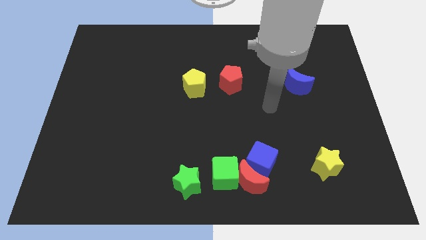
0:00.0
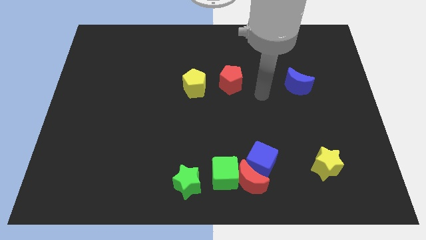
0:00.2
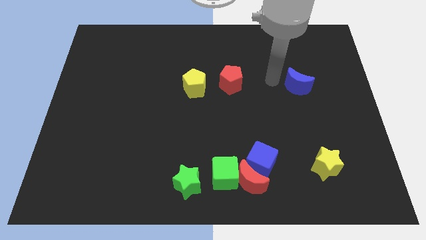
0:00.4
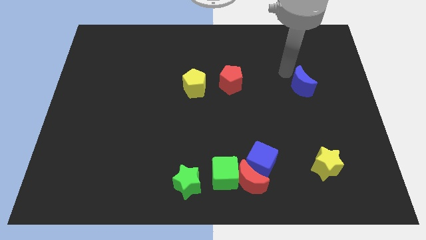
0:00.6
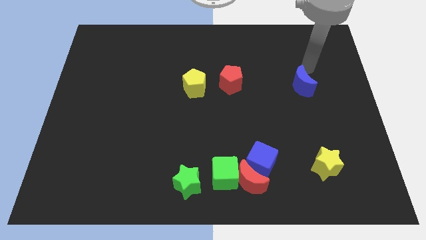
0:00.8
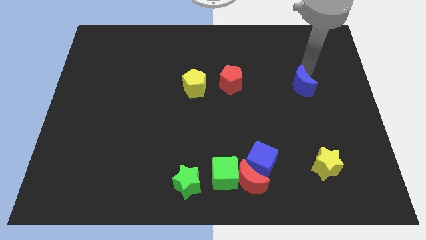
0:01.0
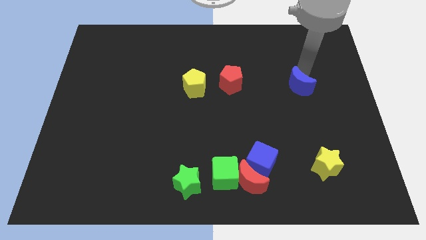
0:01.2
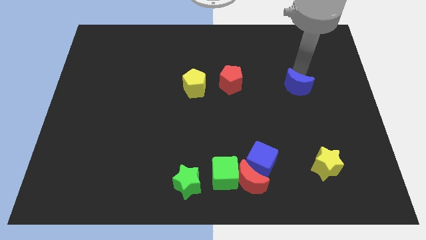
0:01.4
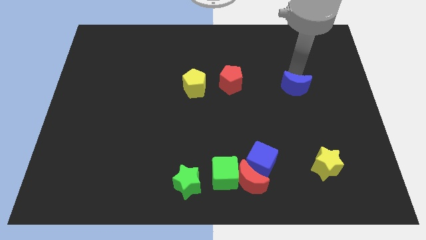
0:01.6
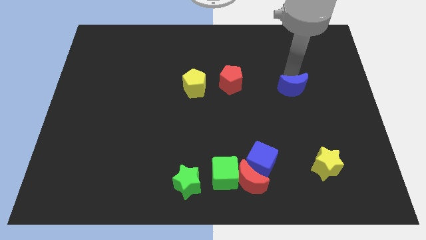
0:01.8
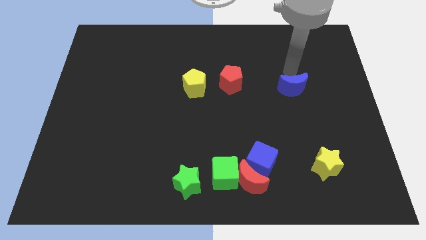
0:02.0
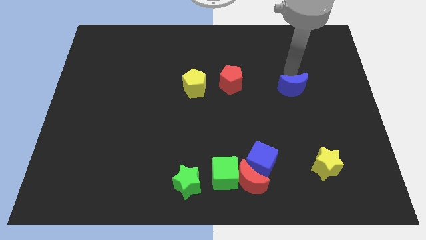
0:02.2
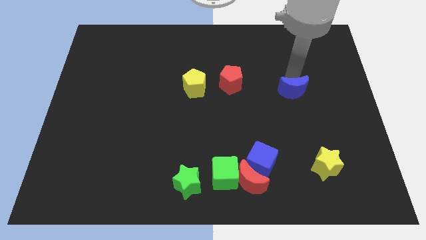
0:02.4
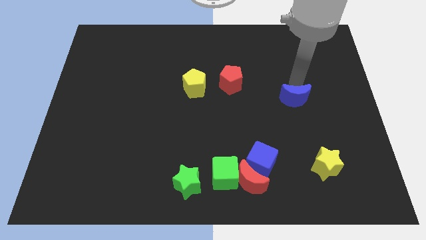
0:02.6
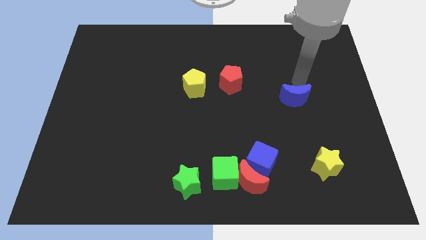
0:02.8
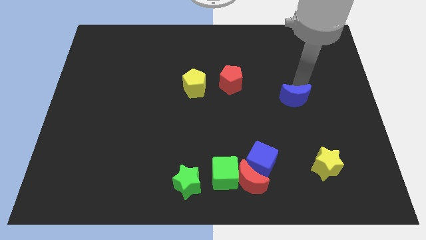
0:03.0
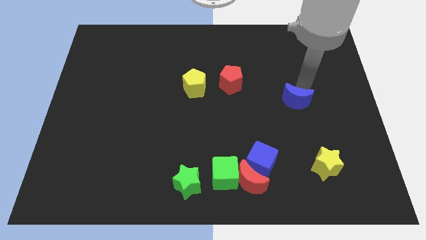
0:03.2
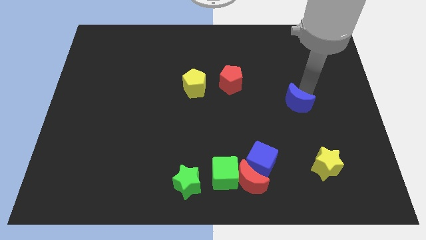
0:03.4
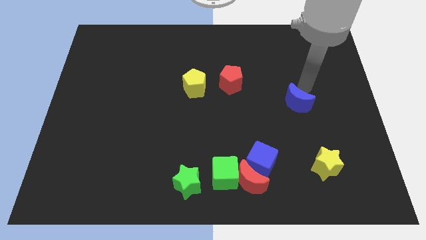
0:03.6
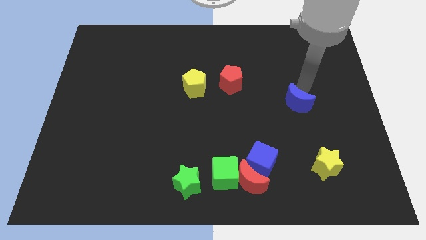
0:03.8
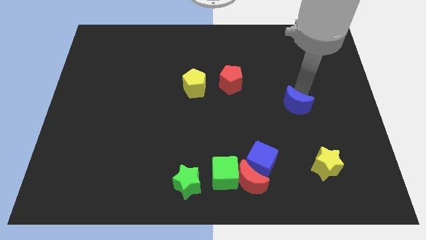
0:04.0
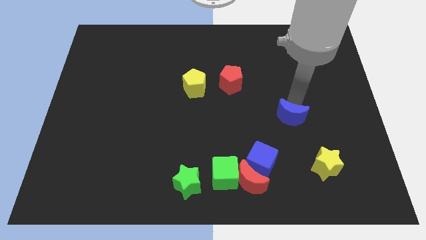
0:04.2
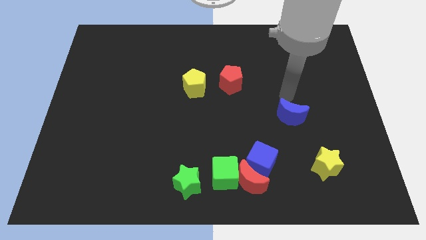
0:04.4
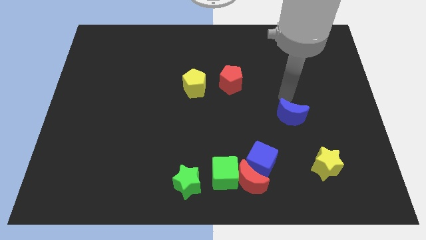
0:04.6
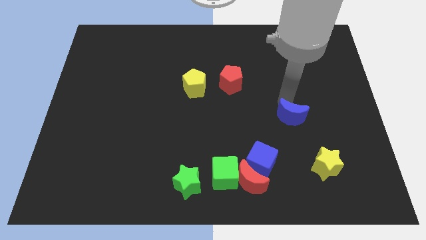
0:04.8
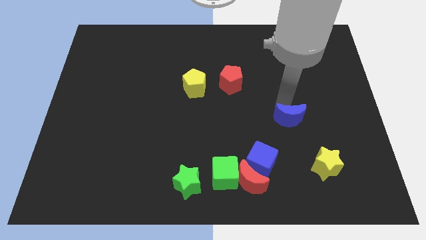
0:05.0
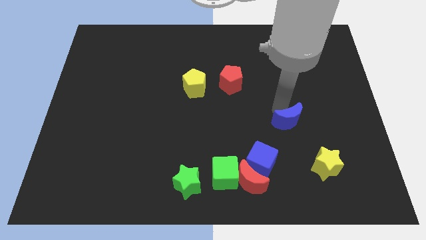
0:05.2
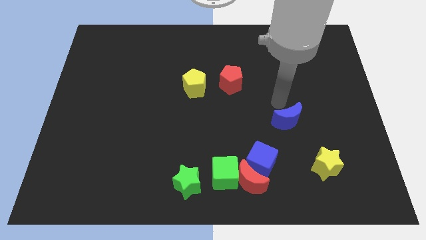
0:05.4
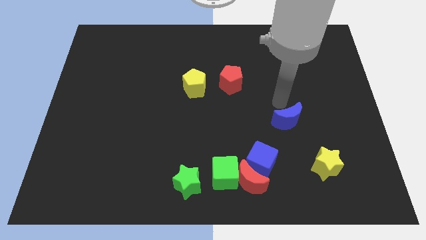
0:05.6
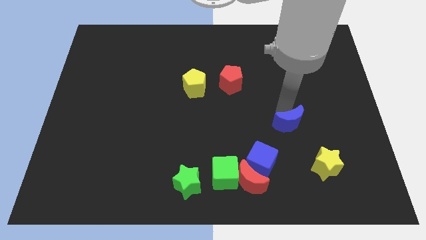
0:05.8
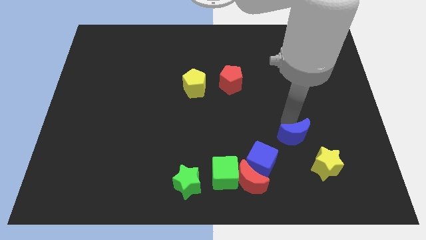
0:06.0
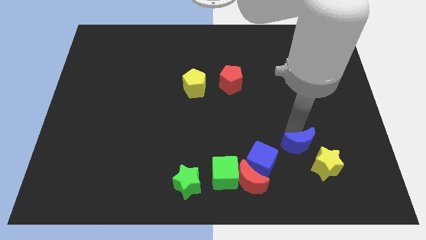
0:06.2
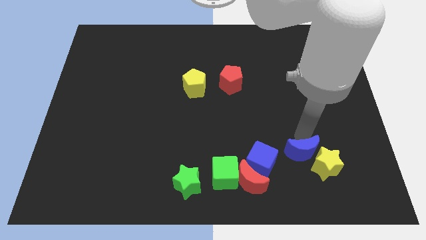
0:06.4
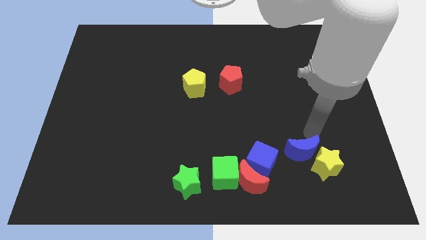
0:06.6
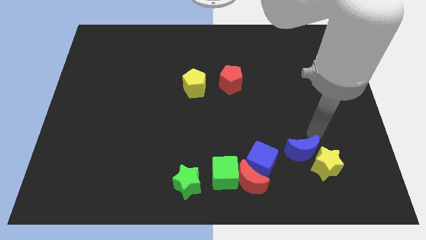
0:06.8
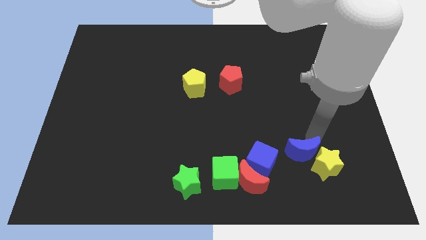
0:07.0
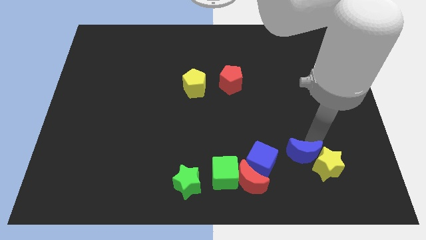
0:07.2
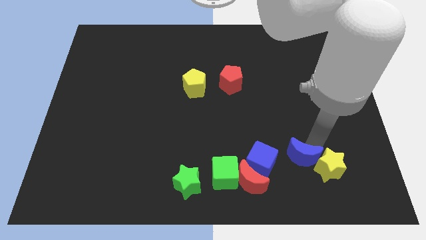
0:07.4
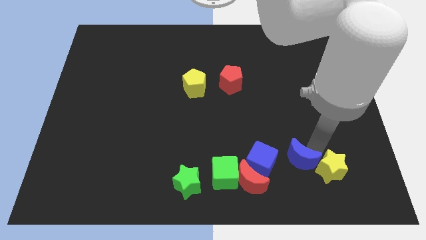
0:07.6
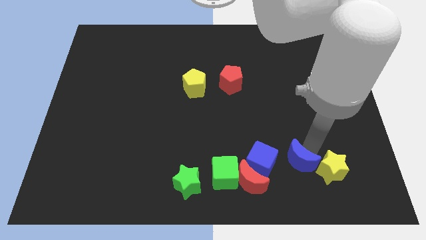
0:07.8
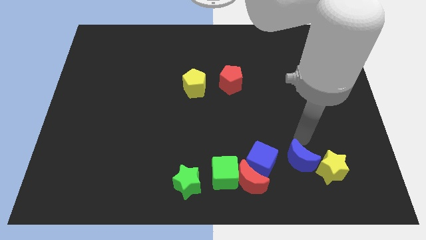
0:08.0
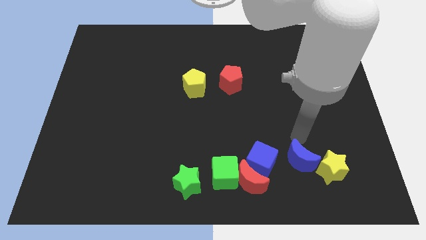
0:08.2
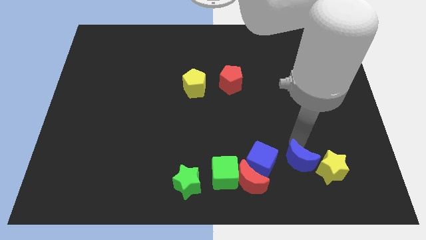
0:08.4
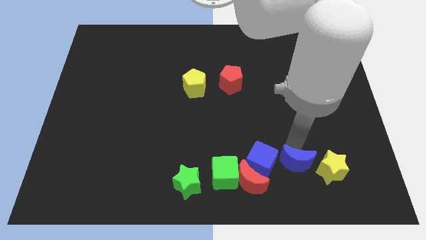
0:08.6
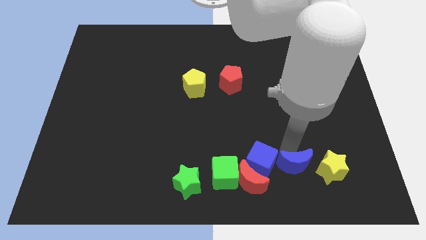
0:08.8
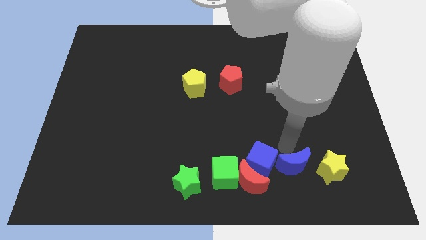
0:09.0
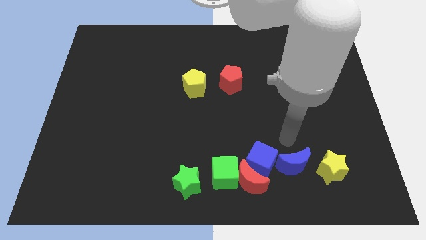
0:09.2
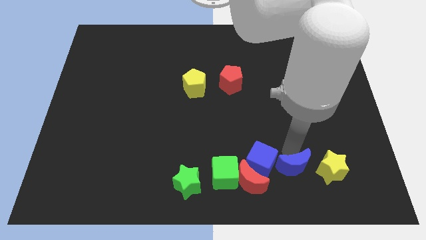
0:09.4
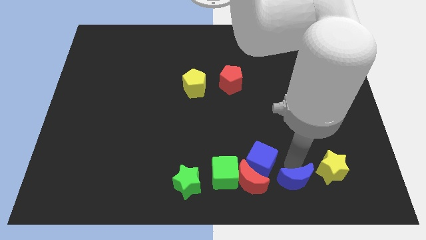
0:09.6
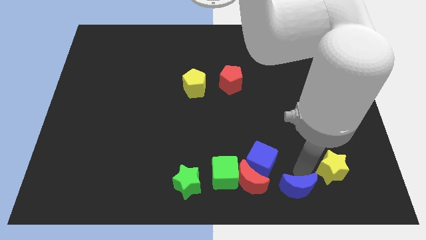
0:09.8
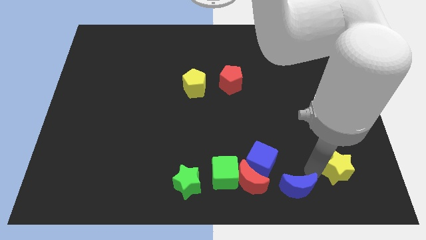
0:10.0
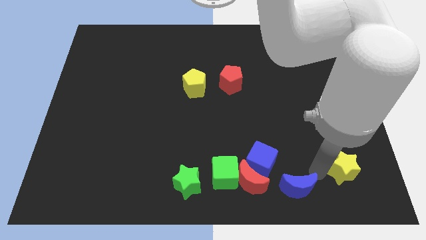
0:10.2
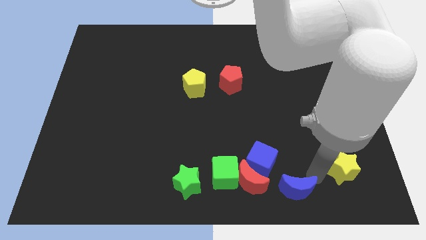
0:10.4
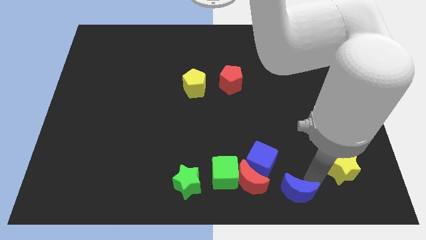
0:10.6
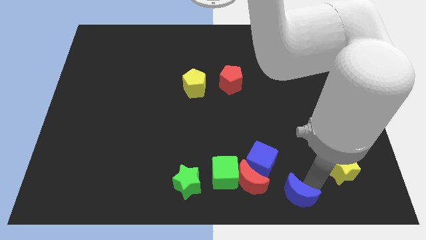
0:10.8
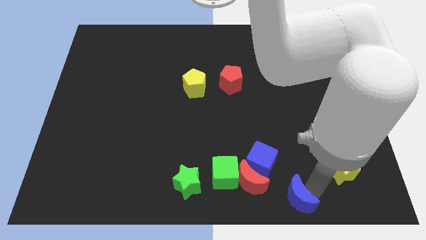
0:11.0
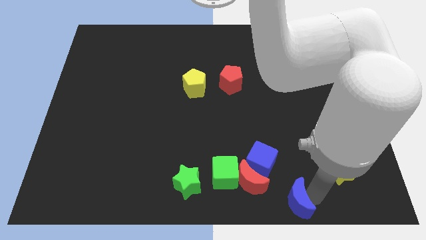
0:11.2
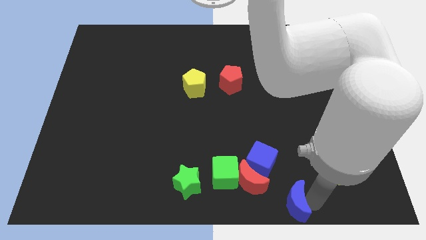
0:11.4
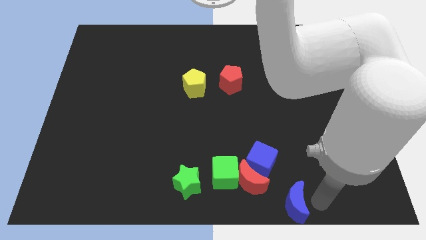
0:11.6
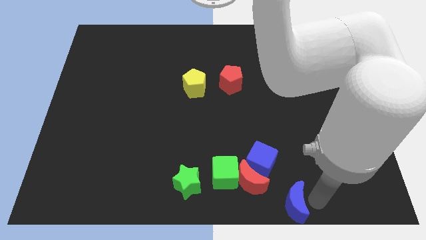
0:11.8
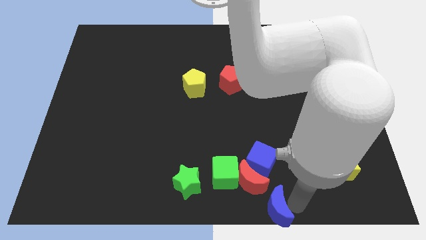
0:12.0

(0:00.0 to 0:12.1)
move the blue moon to the bottom

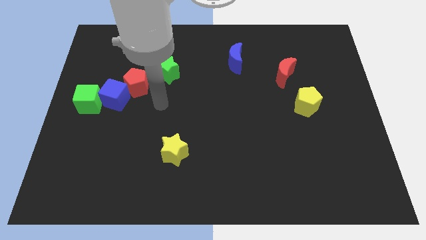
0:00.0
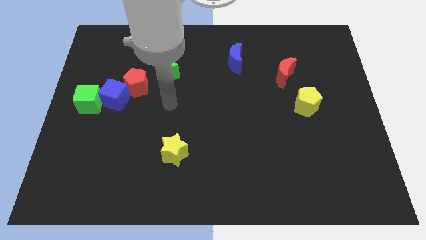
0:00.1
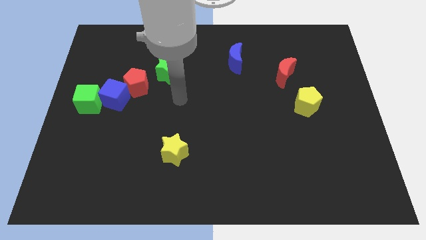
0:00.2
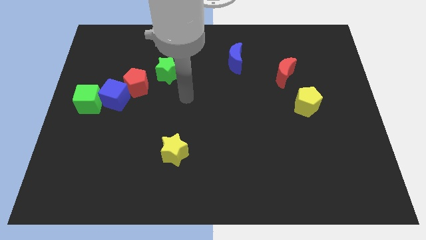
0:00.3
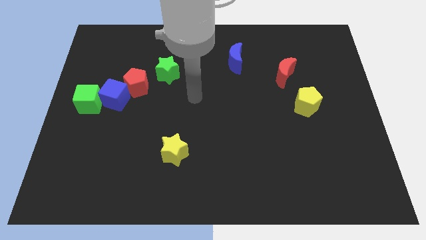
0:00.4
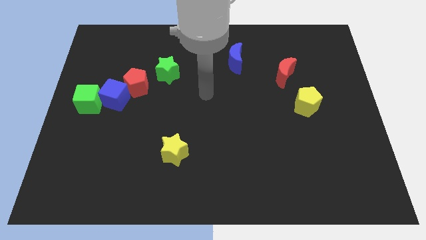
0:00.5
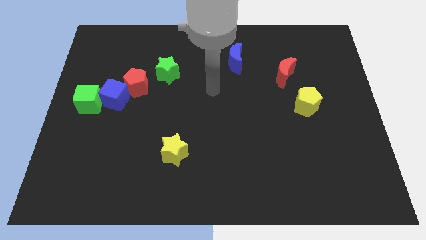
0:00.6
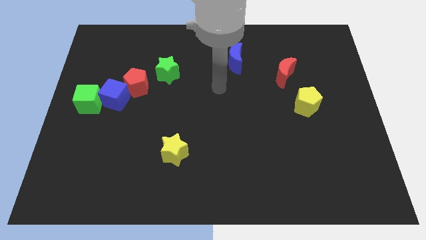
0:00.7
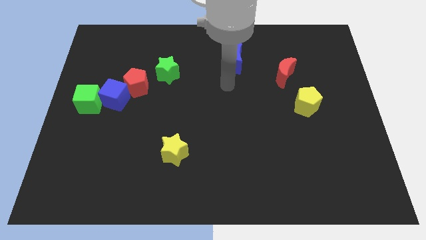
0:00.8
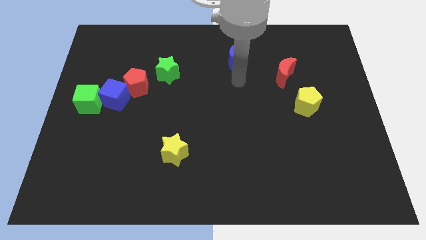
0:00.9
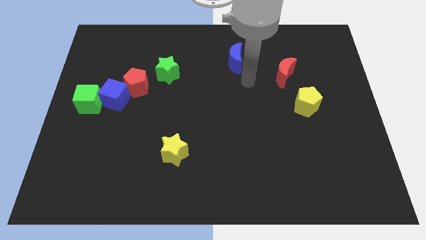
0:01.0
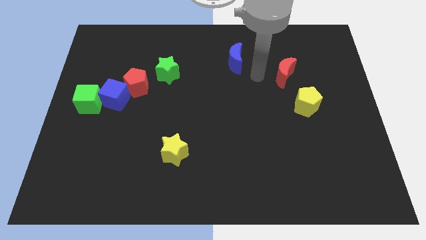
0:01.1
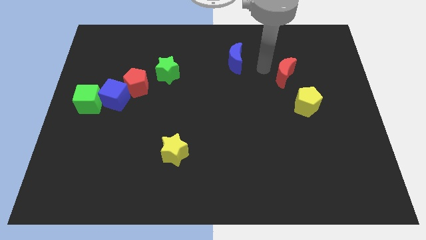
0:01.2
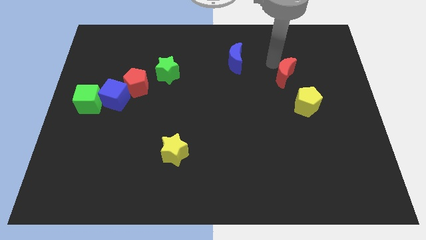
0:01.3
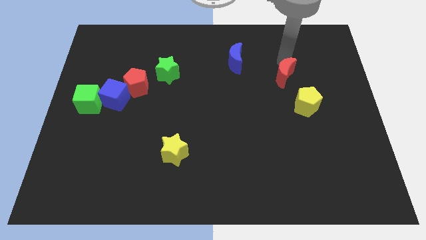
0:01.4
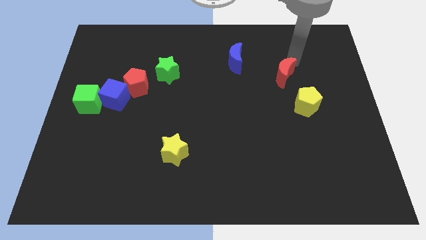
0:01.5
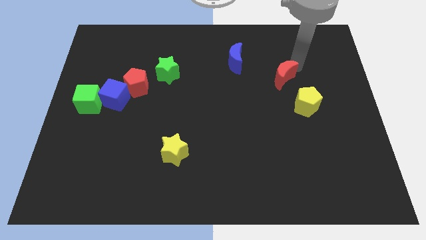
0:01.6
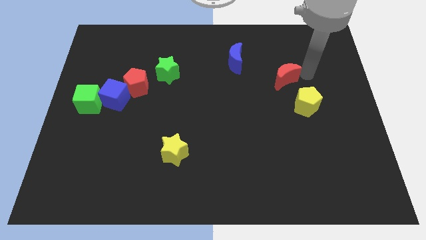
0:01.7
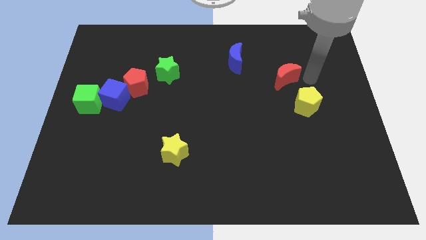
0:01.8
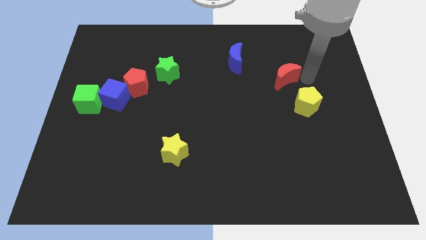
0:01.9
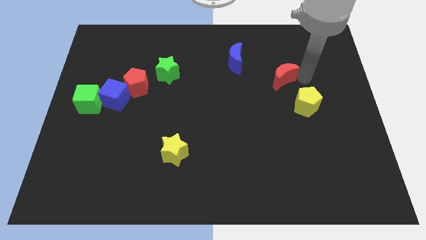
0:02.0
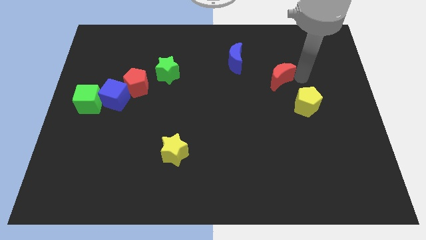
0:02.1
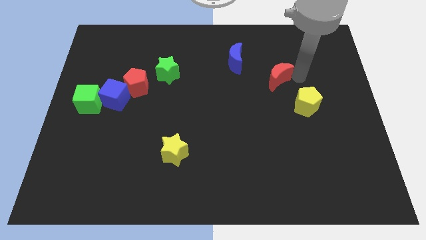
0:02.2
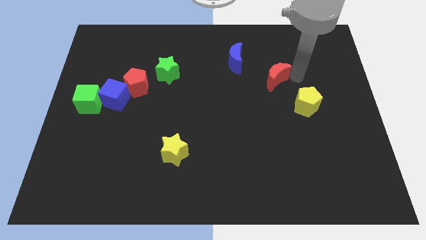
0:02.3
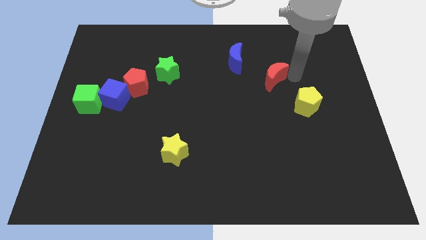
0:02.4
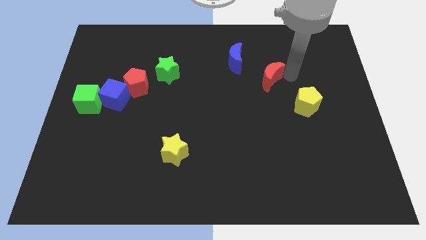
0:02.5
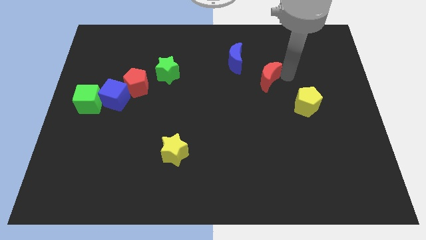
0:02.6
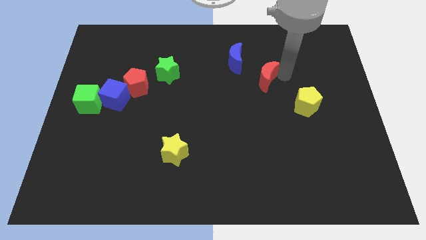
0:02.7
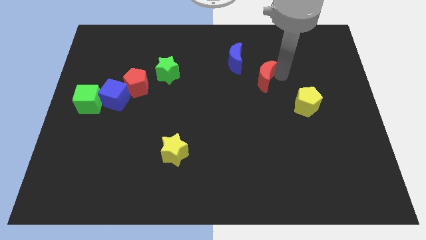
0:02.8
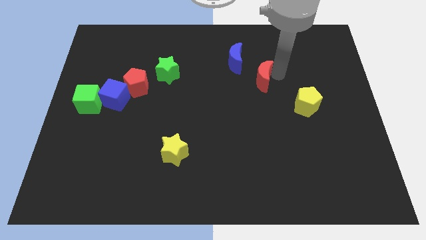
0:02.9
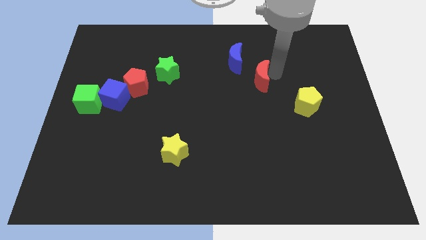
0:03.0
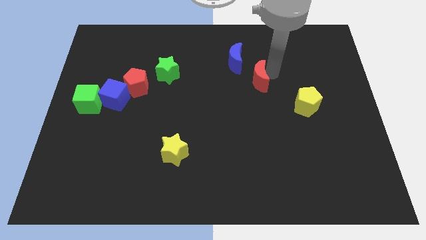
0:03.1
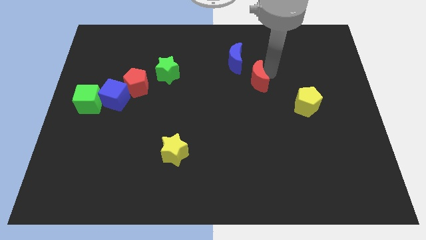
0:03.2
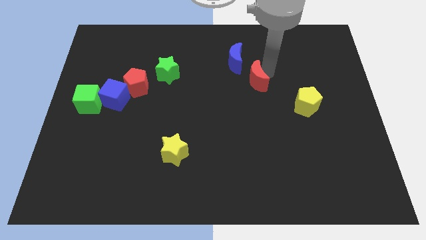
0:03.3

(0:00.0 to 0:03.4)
move the red moon to the center of the board
